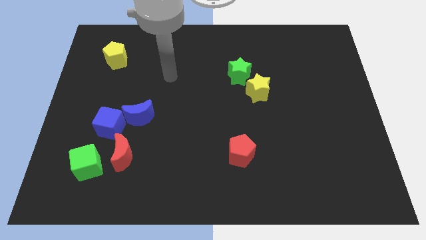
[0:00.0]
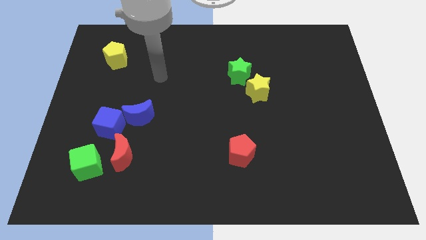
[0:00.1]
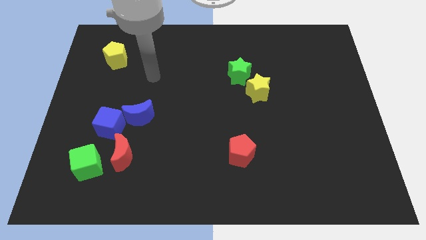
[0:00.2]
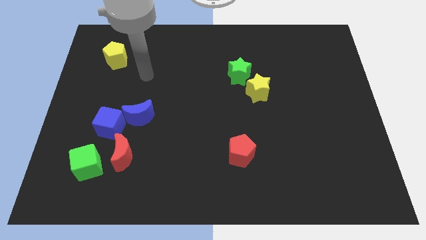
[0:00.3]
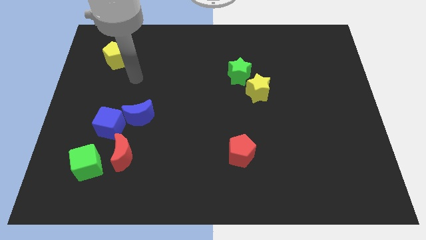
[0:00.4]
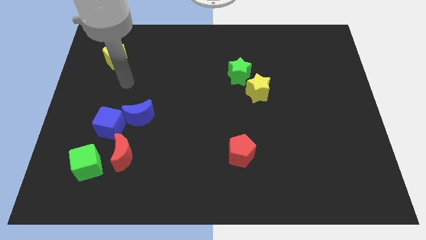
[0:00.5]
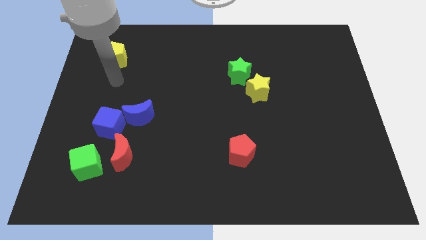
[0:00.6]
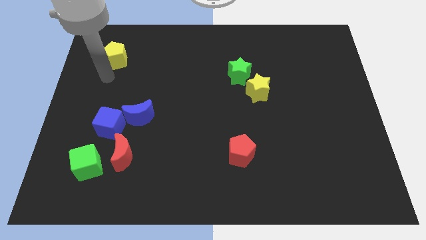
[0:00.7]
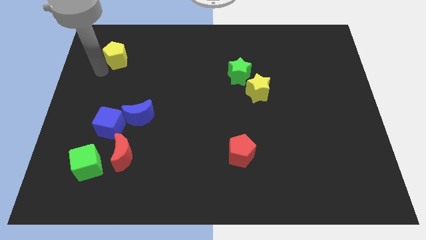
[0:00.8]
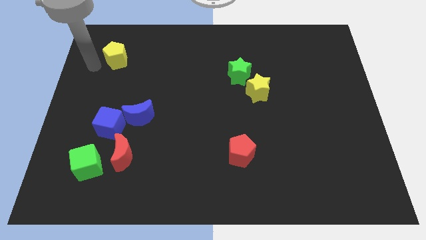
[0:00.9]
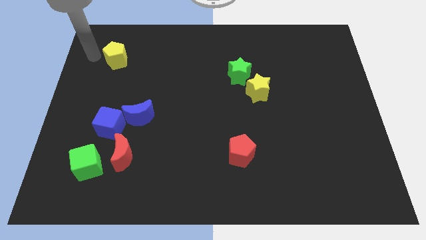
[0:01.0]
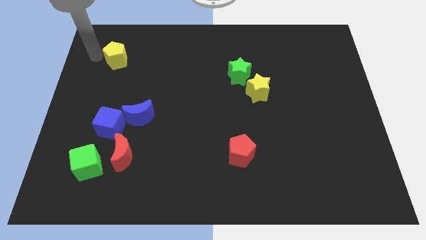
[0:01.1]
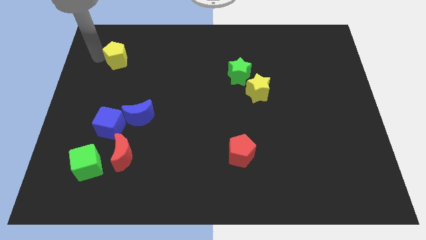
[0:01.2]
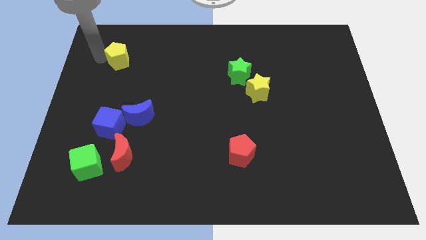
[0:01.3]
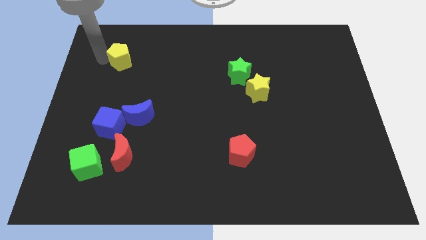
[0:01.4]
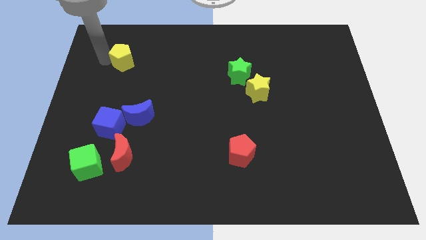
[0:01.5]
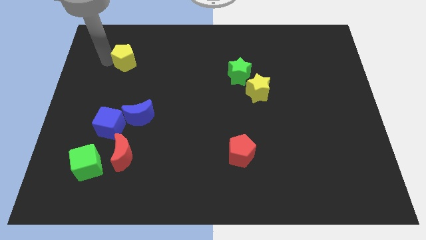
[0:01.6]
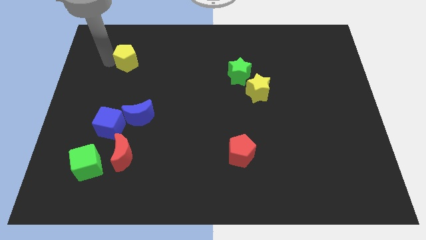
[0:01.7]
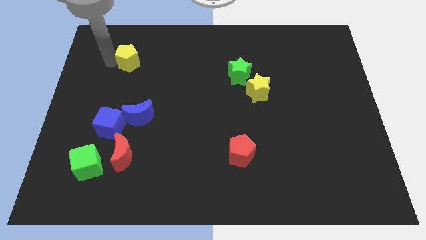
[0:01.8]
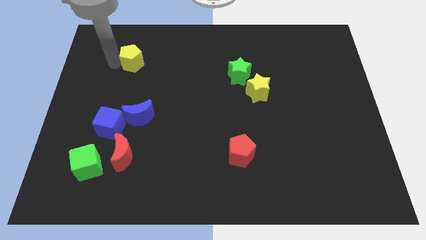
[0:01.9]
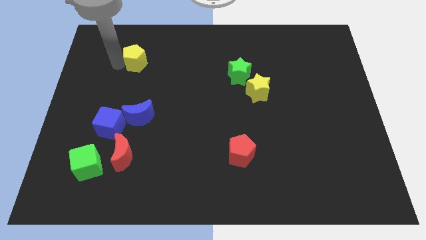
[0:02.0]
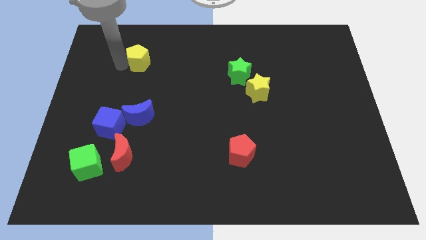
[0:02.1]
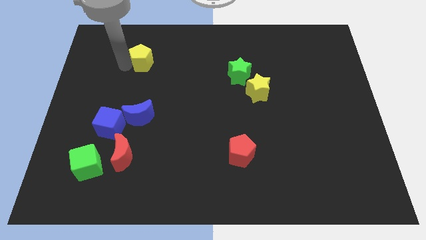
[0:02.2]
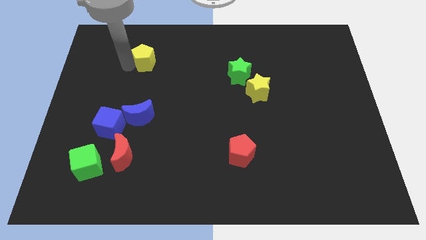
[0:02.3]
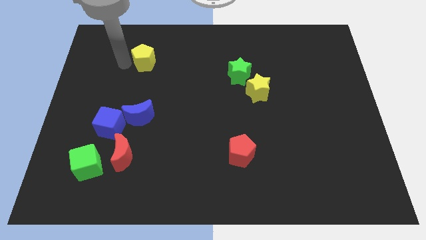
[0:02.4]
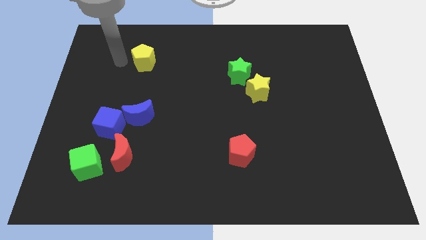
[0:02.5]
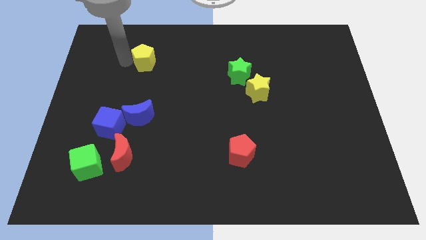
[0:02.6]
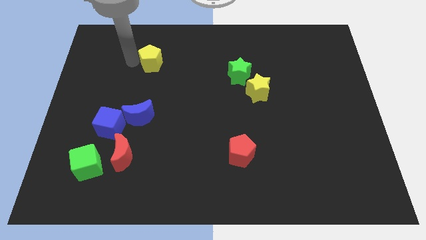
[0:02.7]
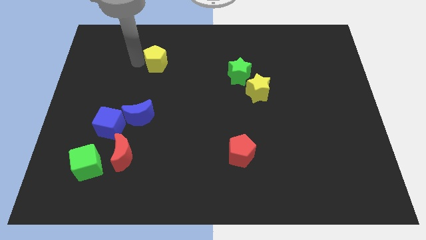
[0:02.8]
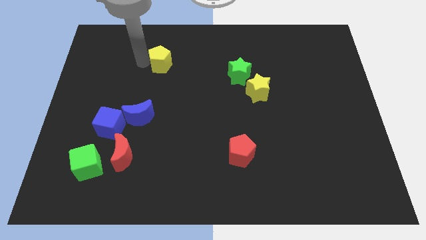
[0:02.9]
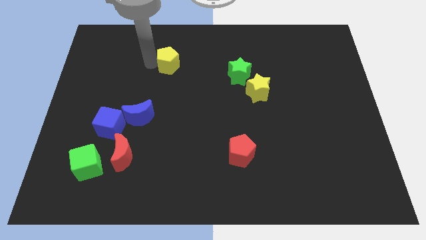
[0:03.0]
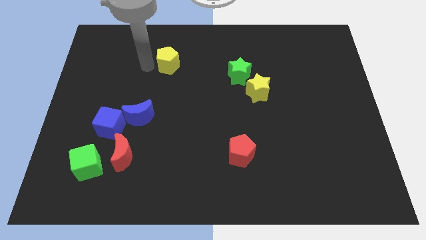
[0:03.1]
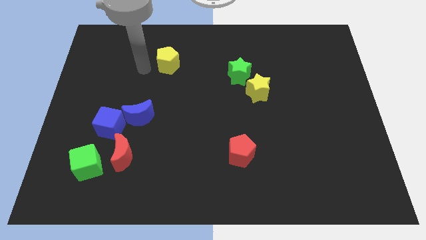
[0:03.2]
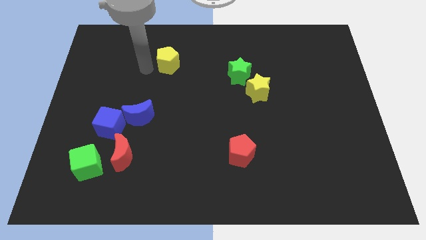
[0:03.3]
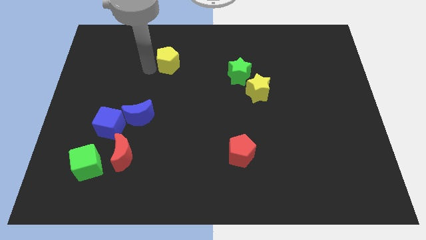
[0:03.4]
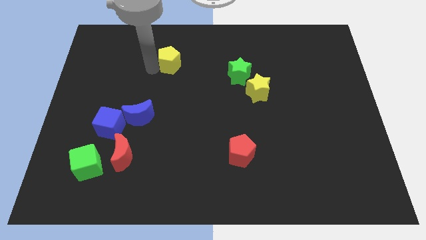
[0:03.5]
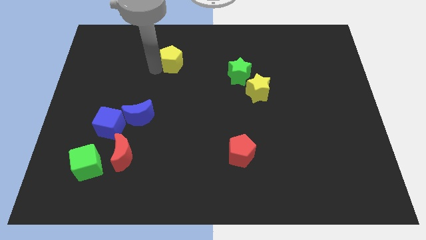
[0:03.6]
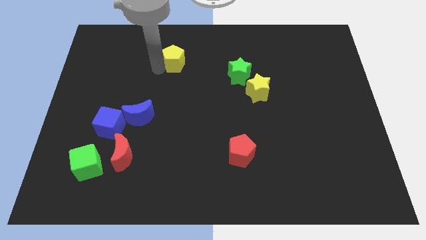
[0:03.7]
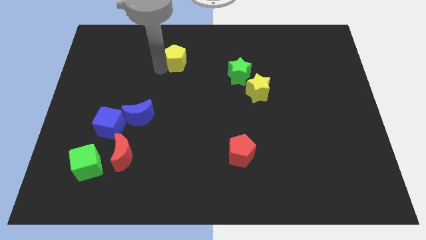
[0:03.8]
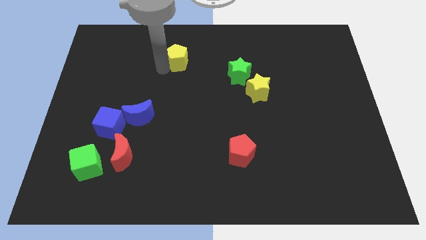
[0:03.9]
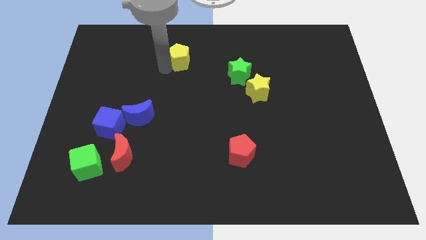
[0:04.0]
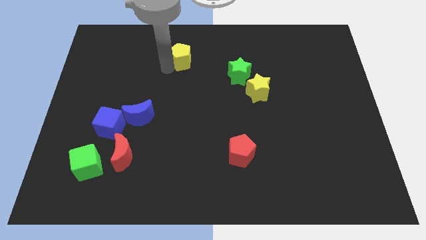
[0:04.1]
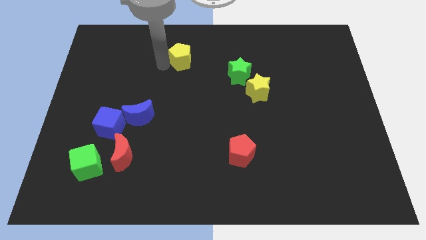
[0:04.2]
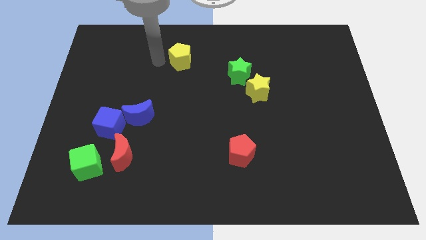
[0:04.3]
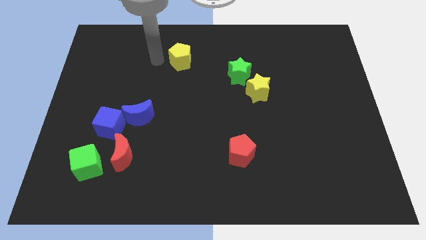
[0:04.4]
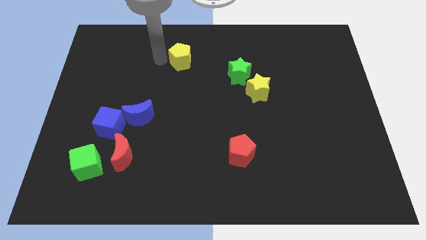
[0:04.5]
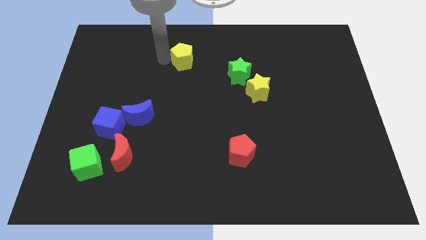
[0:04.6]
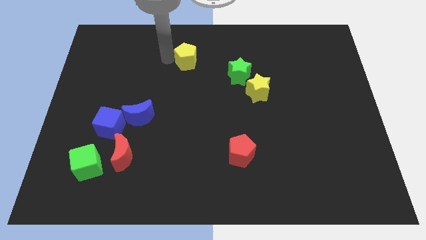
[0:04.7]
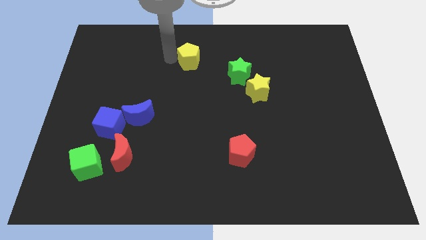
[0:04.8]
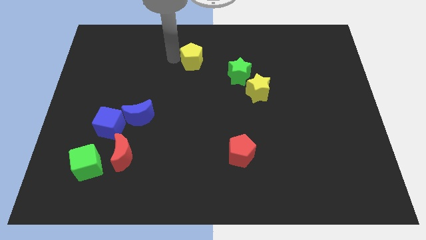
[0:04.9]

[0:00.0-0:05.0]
push the yellow pentagon to the right

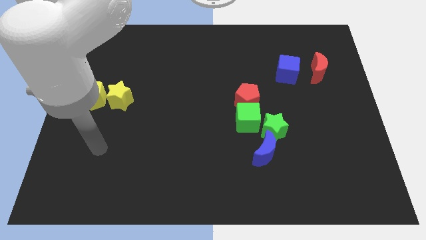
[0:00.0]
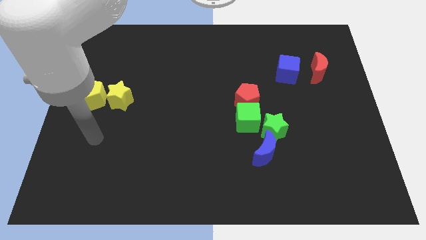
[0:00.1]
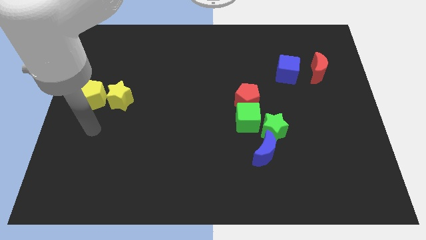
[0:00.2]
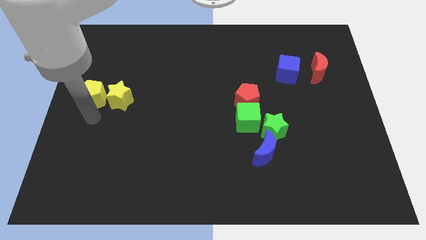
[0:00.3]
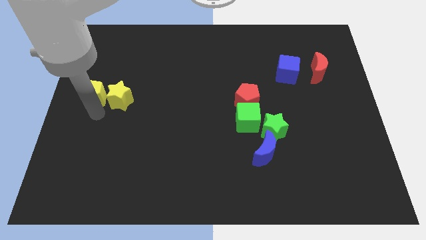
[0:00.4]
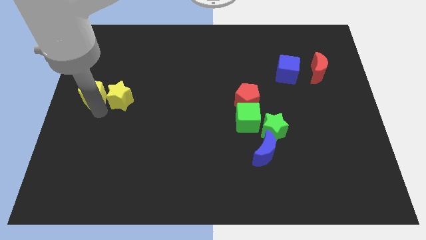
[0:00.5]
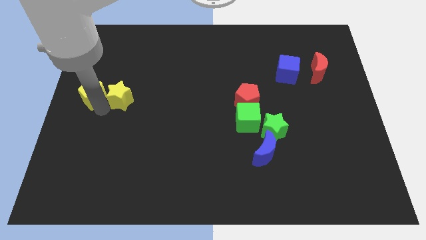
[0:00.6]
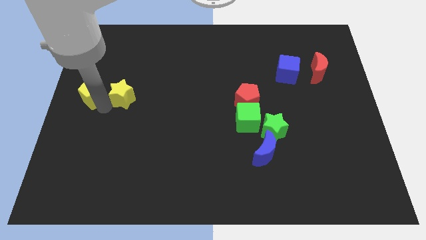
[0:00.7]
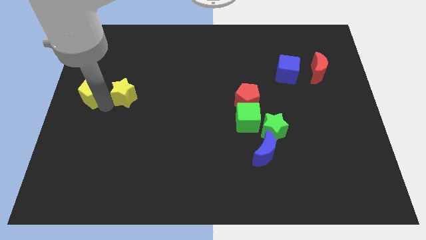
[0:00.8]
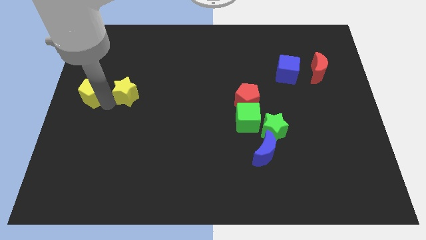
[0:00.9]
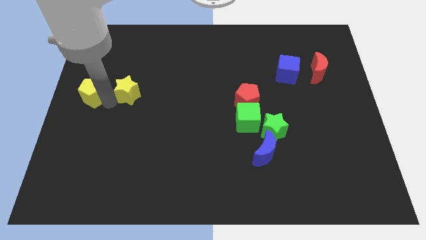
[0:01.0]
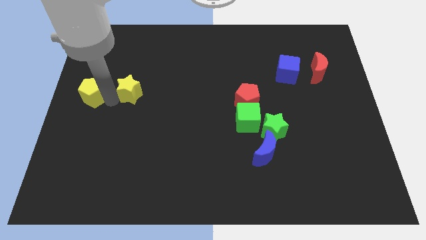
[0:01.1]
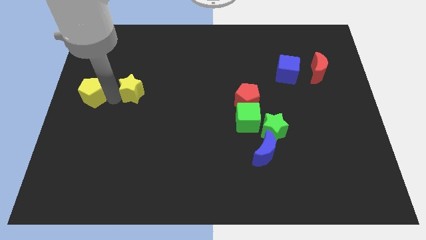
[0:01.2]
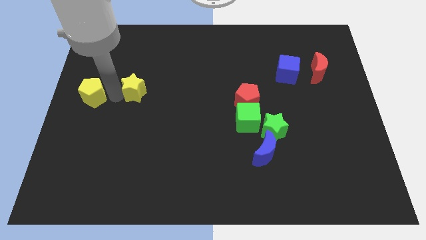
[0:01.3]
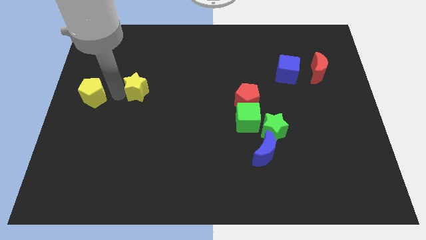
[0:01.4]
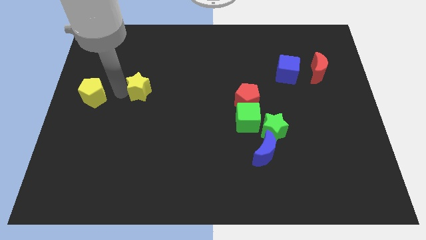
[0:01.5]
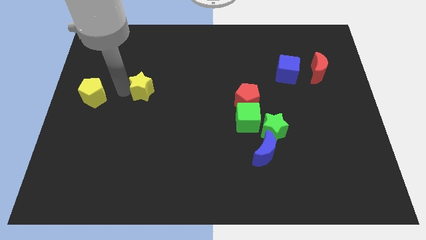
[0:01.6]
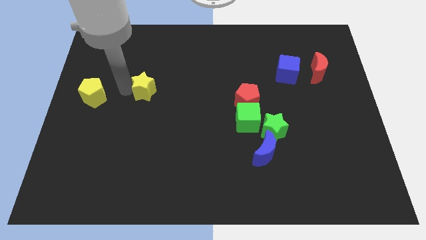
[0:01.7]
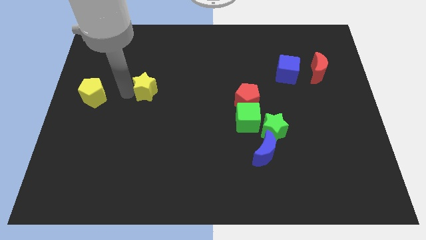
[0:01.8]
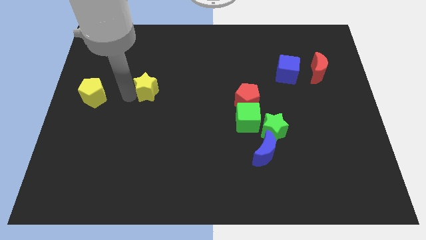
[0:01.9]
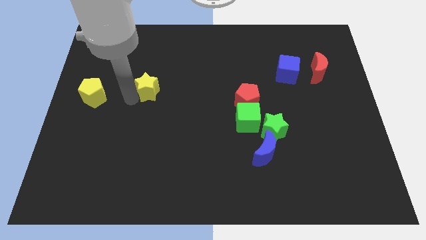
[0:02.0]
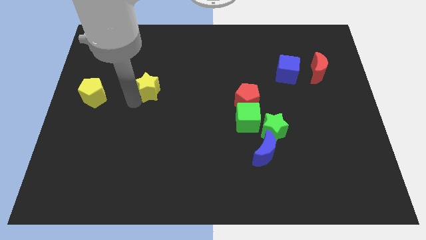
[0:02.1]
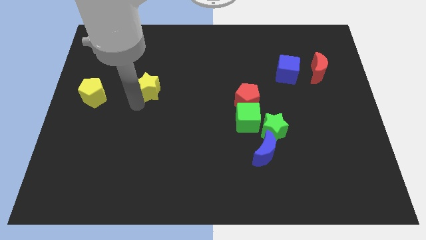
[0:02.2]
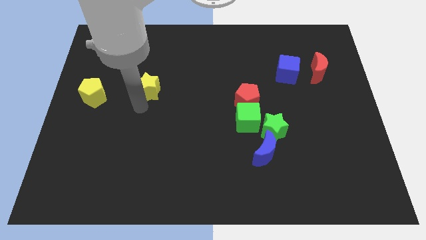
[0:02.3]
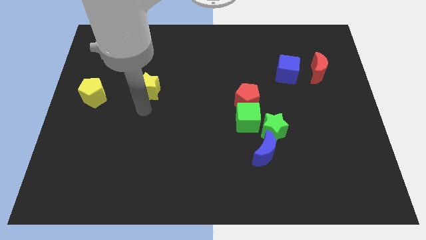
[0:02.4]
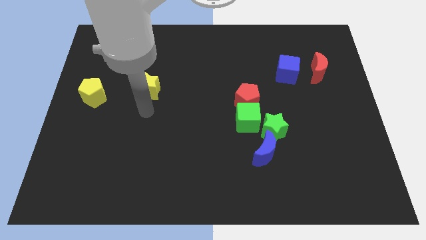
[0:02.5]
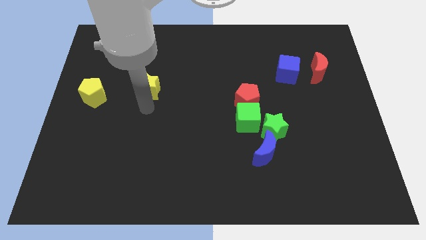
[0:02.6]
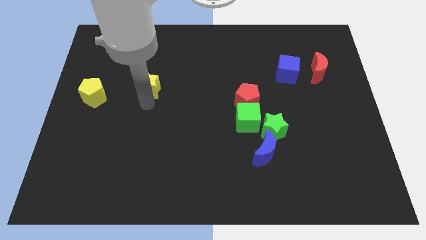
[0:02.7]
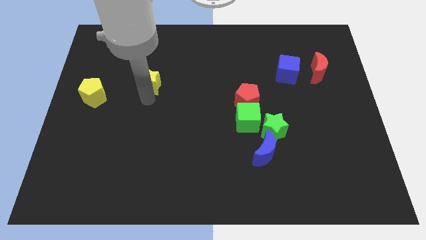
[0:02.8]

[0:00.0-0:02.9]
slightly slide the yellow star up and then to the right
